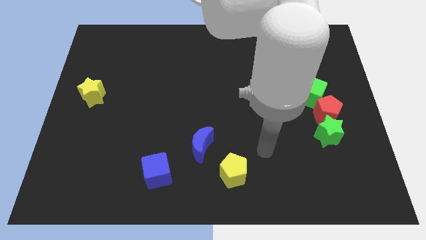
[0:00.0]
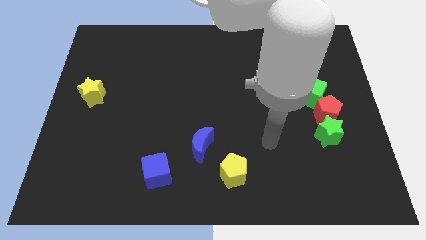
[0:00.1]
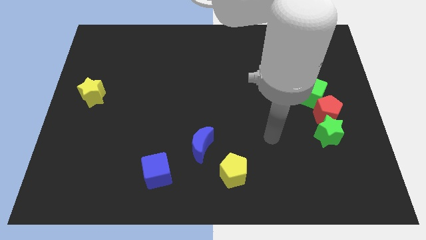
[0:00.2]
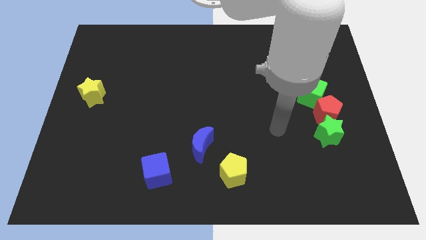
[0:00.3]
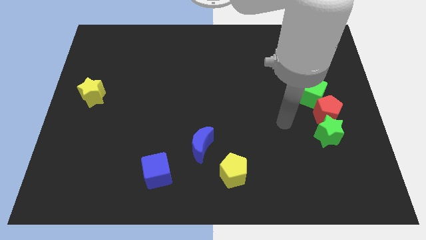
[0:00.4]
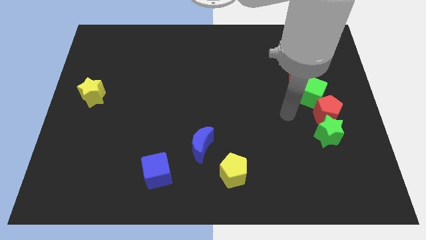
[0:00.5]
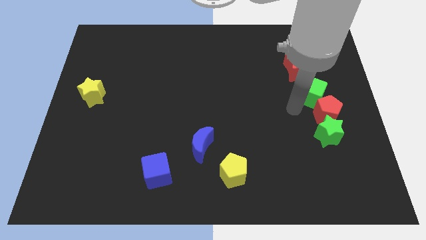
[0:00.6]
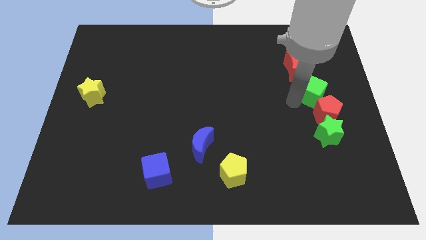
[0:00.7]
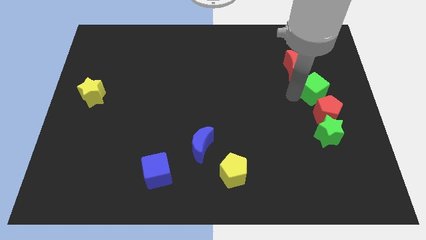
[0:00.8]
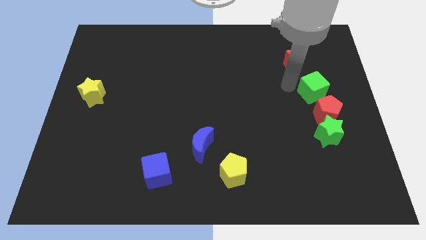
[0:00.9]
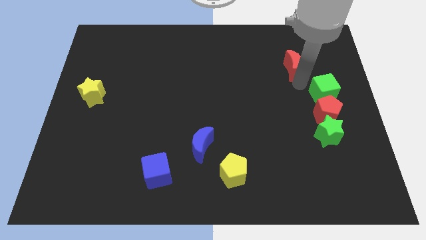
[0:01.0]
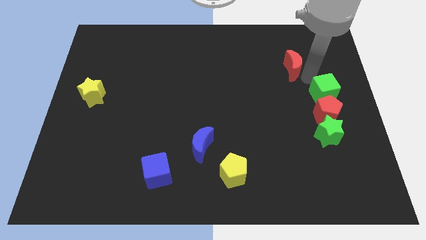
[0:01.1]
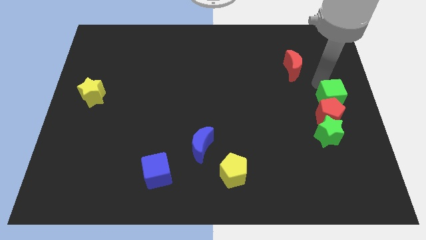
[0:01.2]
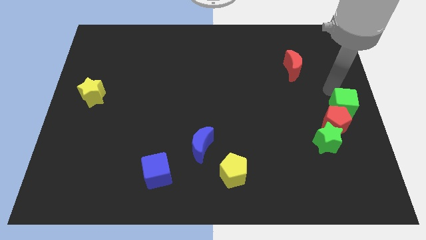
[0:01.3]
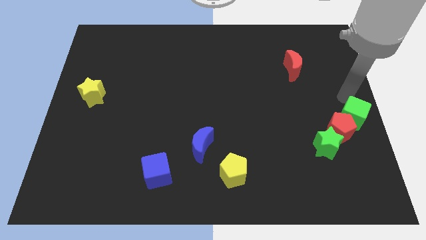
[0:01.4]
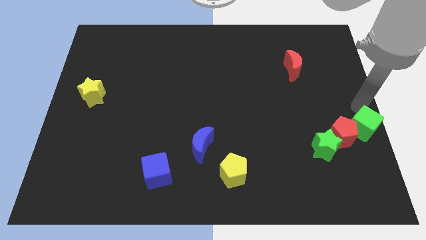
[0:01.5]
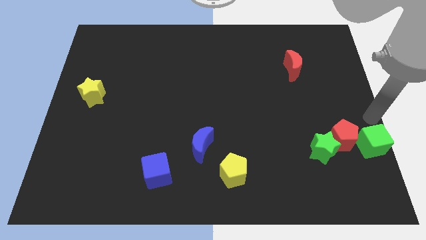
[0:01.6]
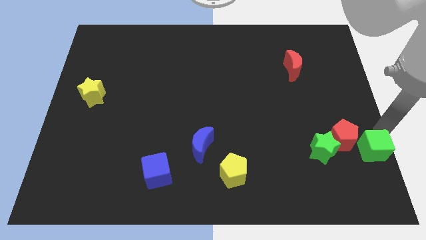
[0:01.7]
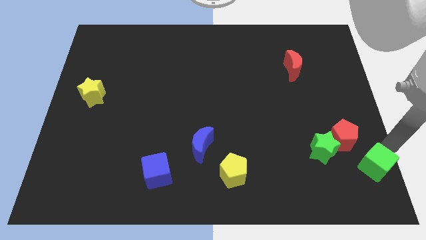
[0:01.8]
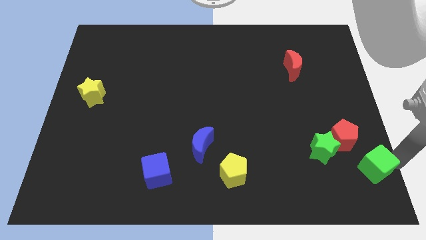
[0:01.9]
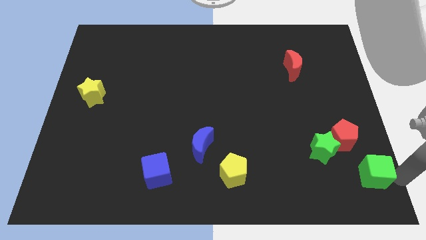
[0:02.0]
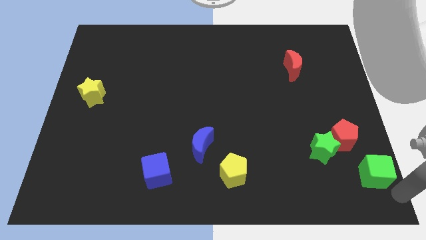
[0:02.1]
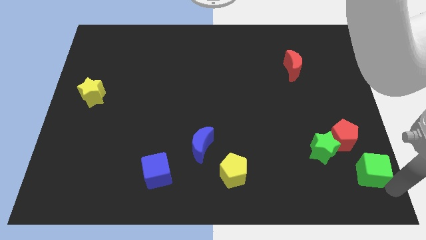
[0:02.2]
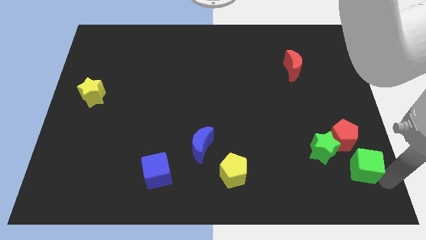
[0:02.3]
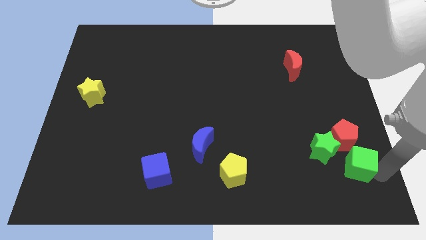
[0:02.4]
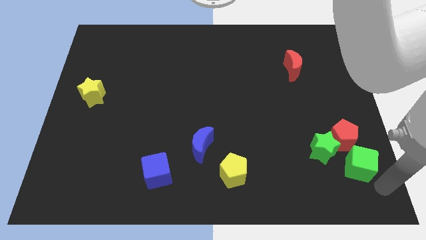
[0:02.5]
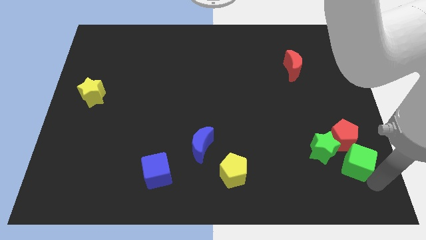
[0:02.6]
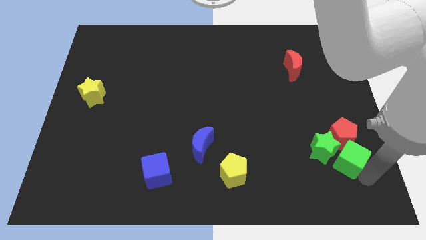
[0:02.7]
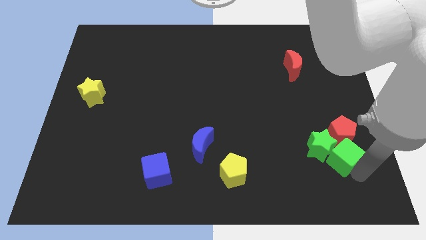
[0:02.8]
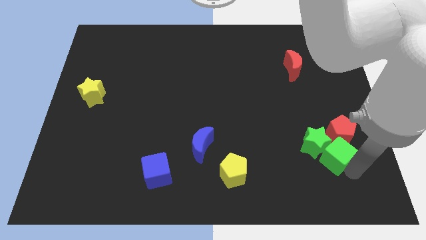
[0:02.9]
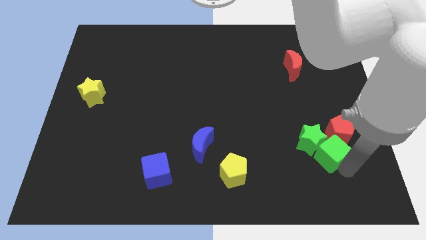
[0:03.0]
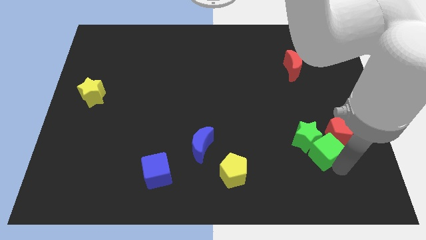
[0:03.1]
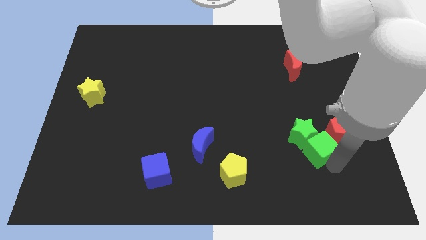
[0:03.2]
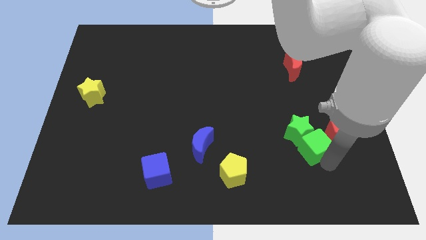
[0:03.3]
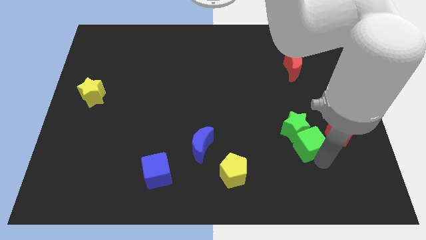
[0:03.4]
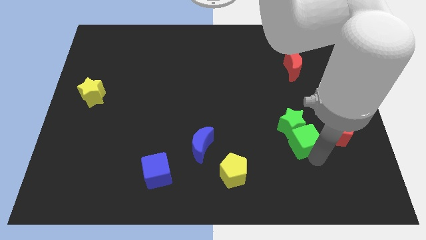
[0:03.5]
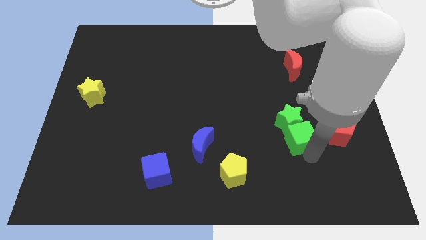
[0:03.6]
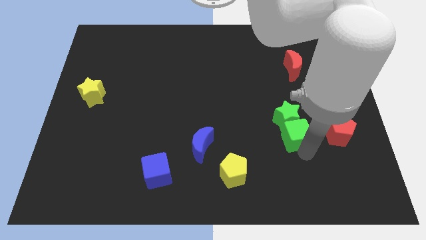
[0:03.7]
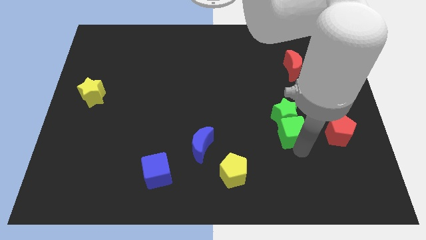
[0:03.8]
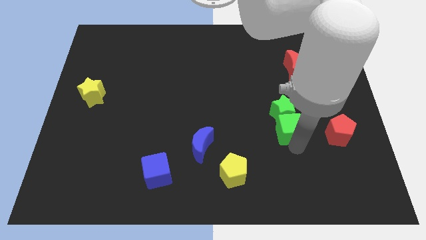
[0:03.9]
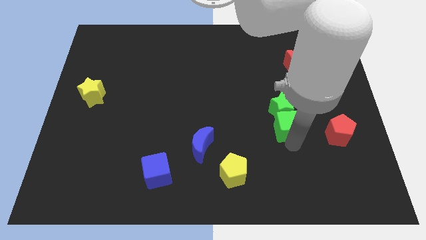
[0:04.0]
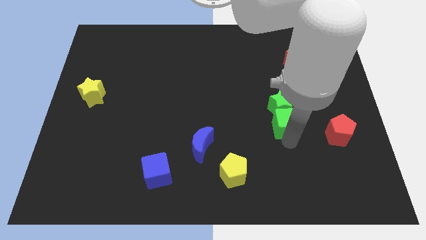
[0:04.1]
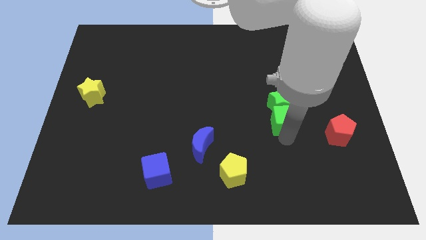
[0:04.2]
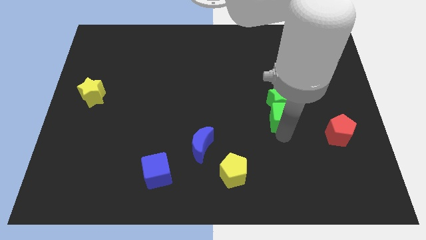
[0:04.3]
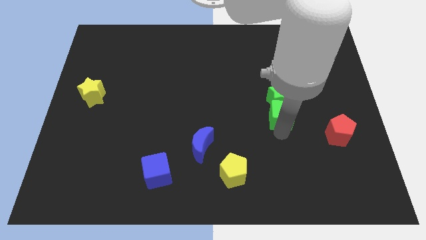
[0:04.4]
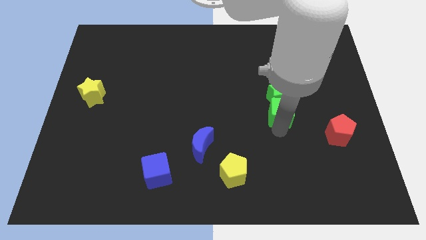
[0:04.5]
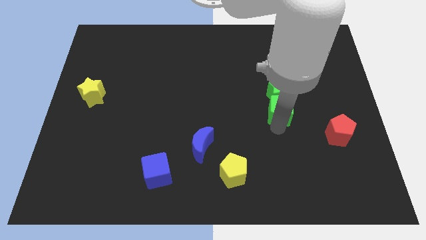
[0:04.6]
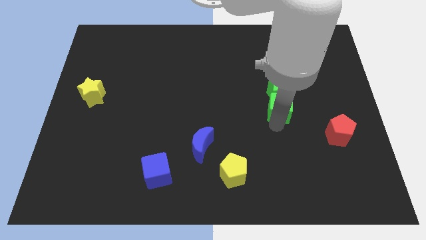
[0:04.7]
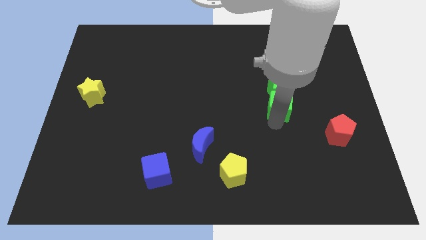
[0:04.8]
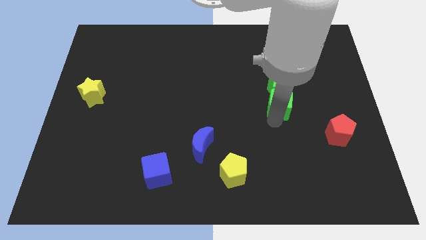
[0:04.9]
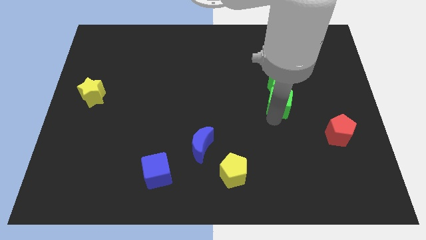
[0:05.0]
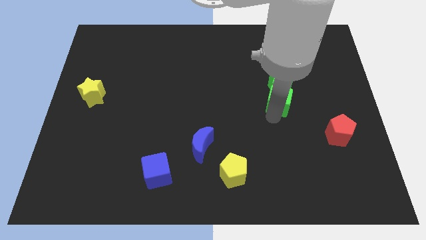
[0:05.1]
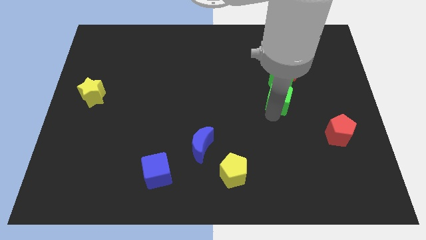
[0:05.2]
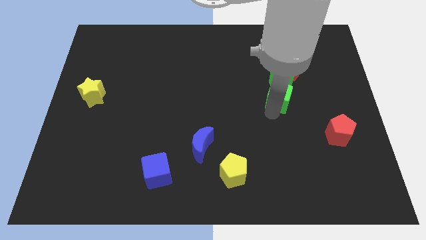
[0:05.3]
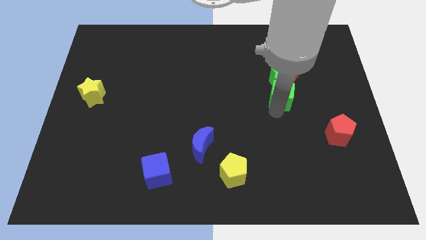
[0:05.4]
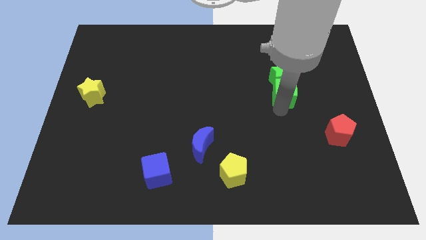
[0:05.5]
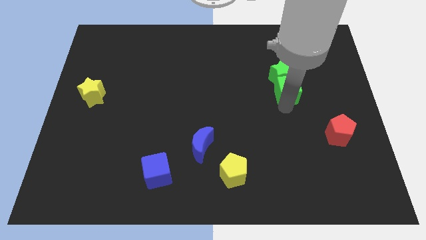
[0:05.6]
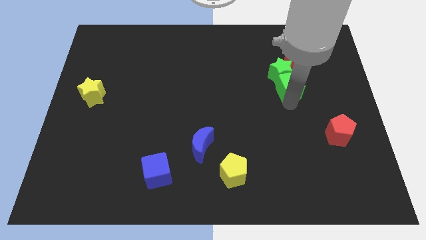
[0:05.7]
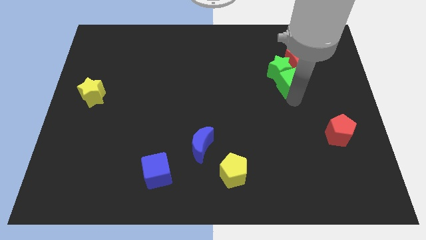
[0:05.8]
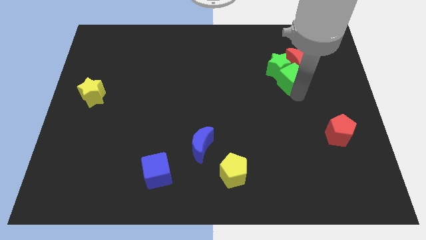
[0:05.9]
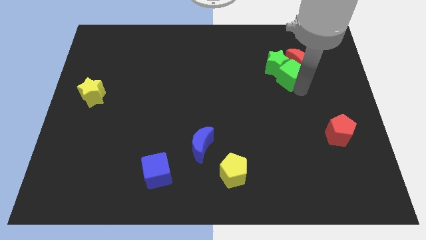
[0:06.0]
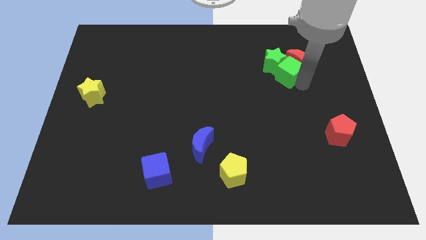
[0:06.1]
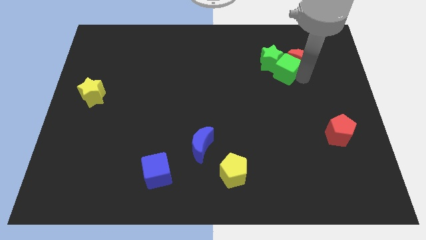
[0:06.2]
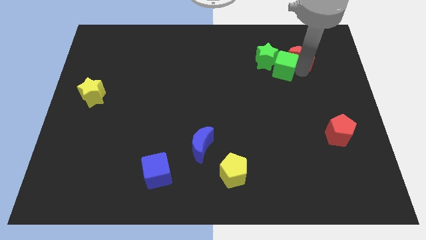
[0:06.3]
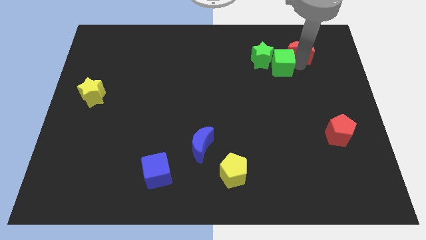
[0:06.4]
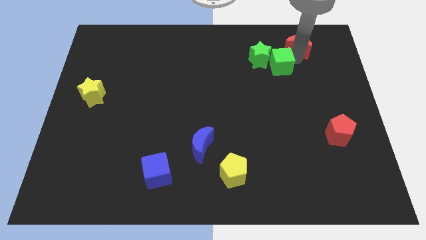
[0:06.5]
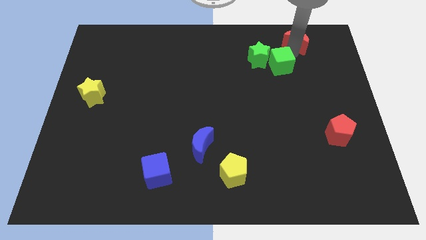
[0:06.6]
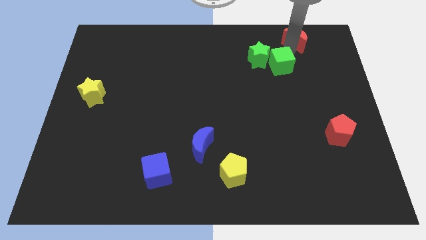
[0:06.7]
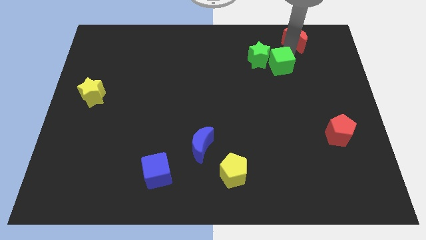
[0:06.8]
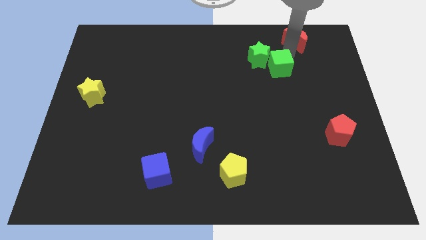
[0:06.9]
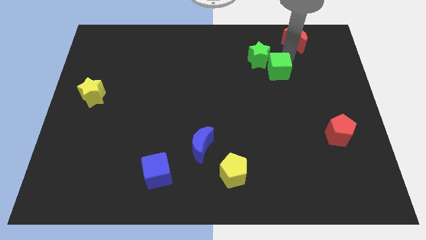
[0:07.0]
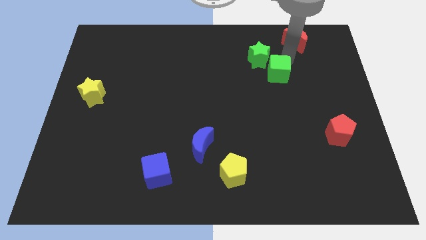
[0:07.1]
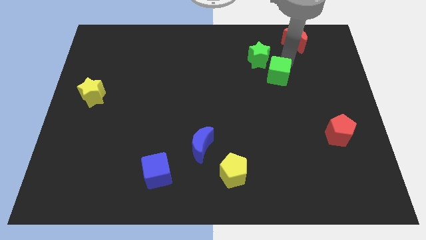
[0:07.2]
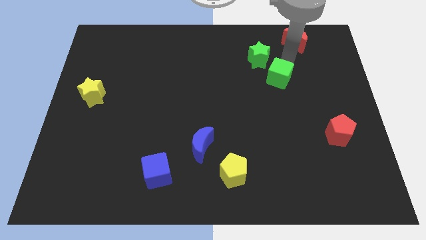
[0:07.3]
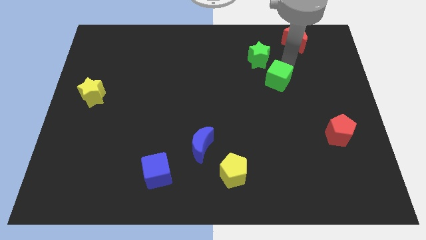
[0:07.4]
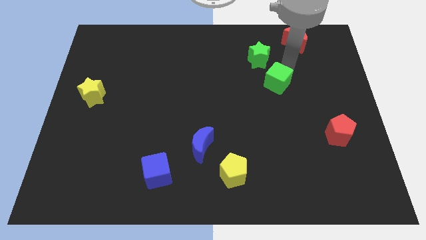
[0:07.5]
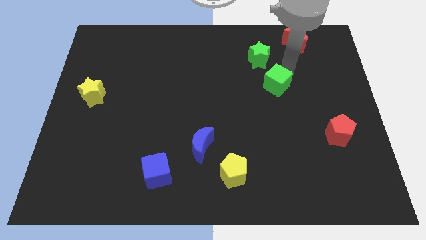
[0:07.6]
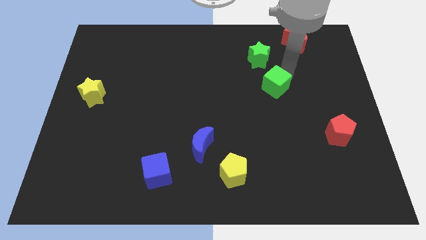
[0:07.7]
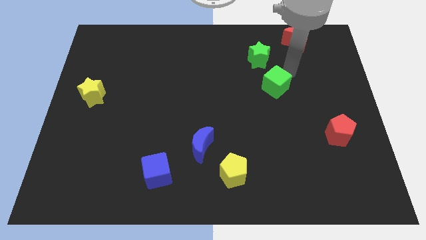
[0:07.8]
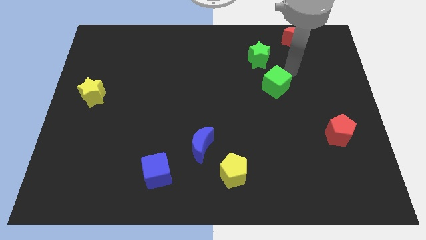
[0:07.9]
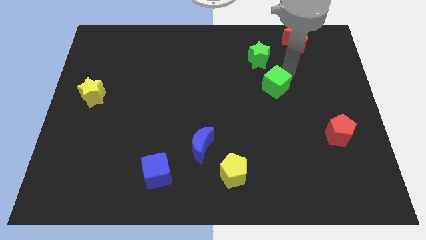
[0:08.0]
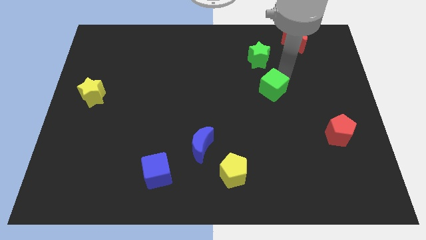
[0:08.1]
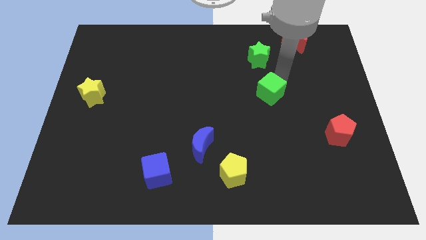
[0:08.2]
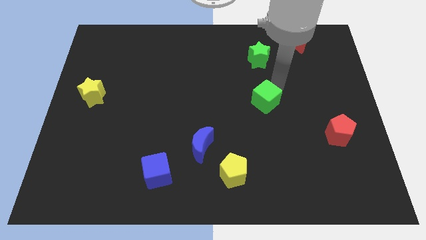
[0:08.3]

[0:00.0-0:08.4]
put the green cube to the middle of the board
